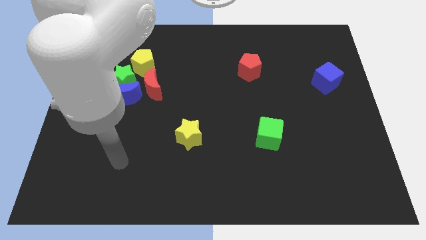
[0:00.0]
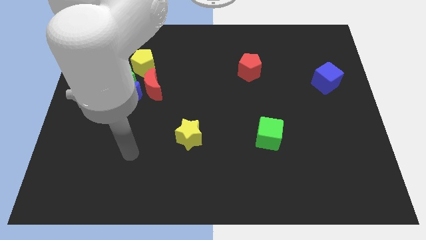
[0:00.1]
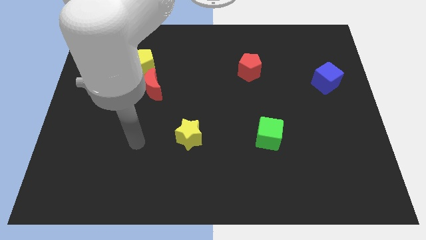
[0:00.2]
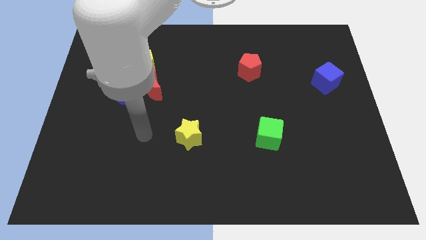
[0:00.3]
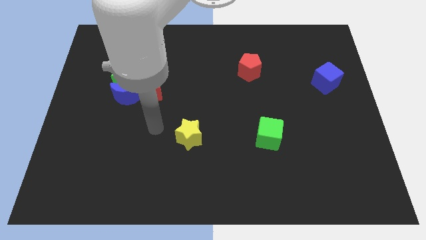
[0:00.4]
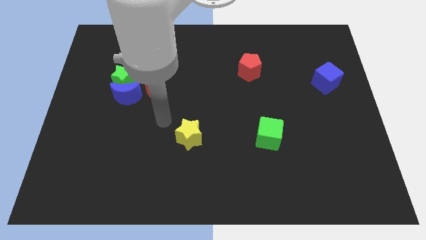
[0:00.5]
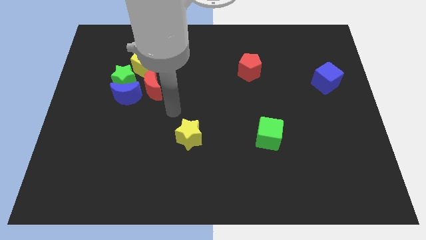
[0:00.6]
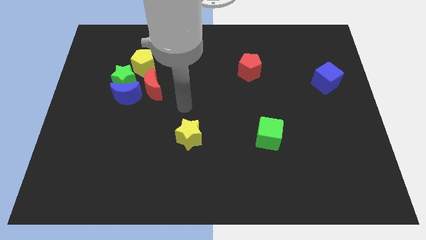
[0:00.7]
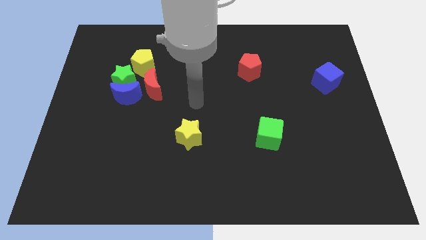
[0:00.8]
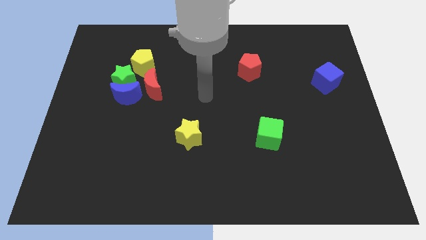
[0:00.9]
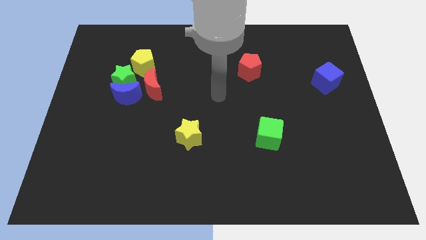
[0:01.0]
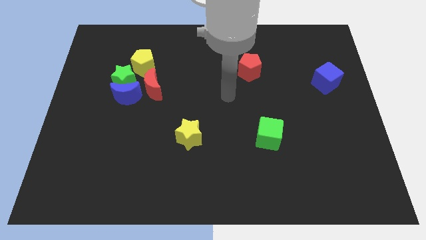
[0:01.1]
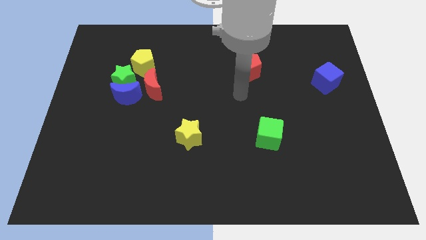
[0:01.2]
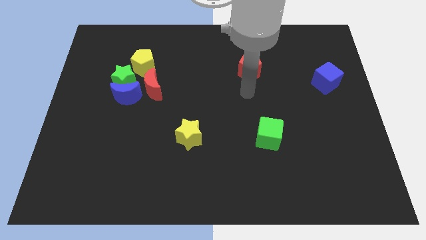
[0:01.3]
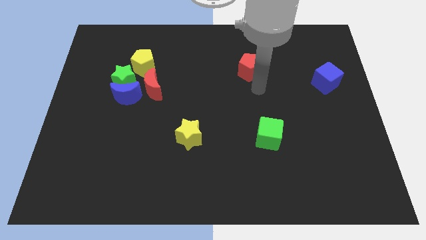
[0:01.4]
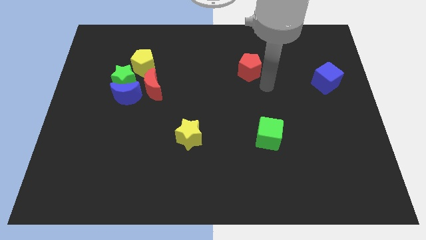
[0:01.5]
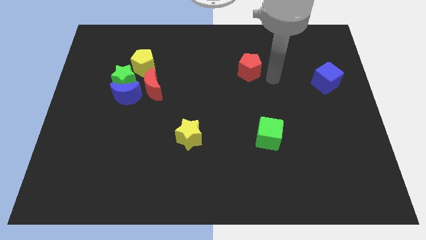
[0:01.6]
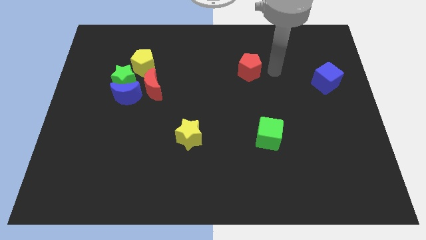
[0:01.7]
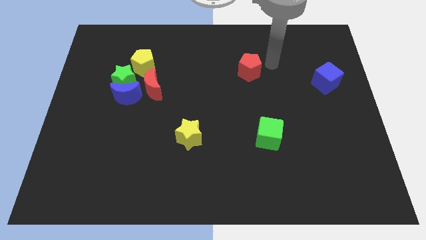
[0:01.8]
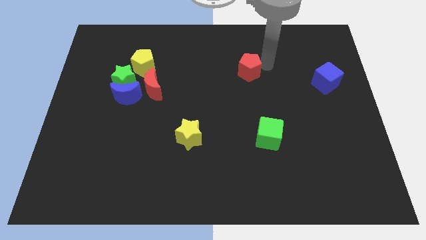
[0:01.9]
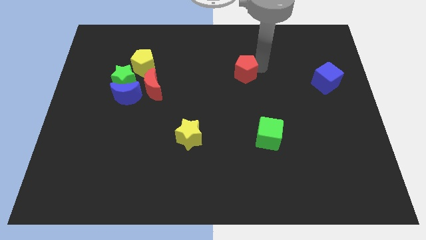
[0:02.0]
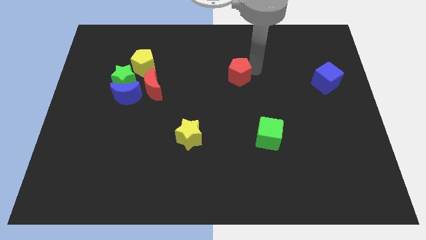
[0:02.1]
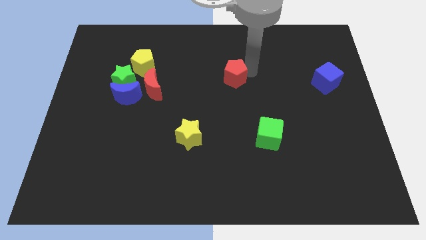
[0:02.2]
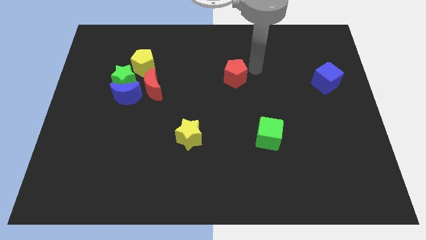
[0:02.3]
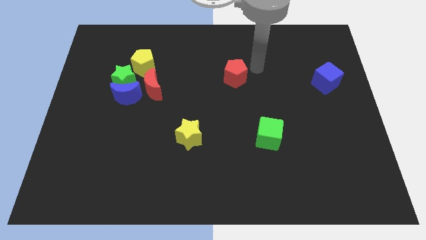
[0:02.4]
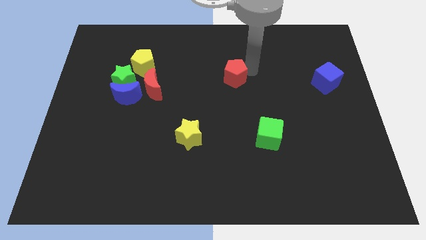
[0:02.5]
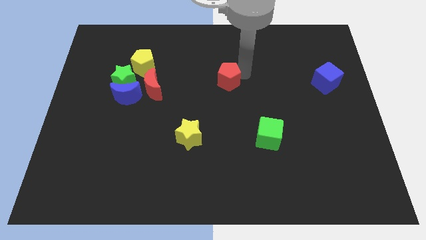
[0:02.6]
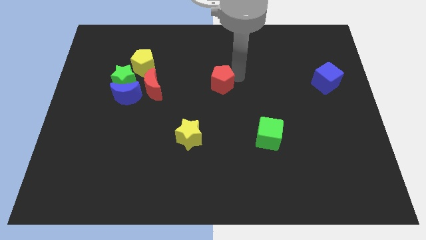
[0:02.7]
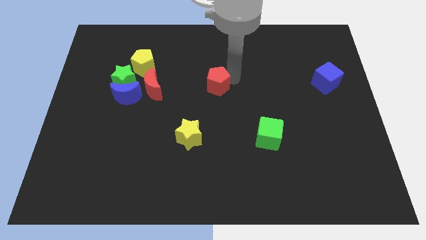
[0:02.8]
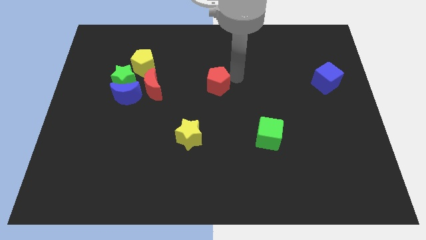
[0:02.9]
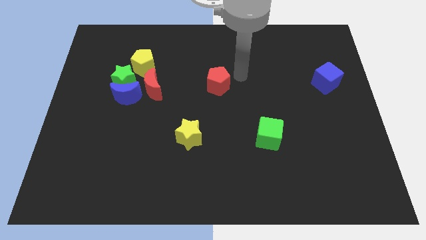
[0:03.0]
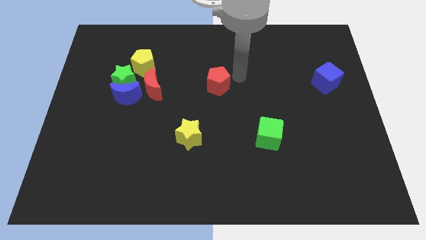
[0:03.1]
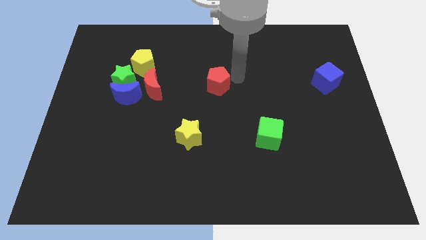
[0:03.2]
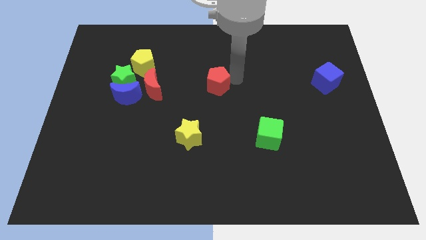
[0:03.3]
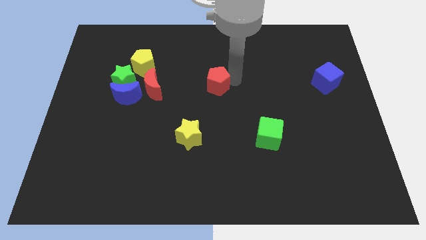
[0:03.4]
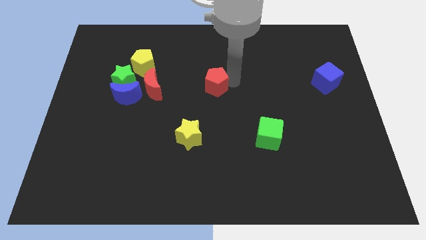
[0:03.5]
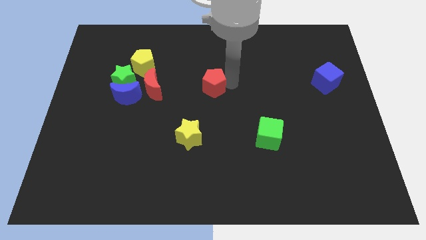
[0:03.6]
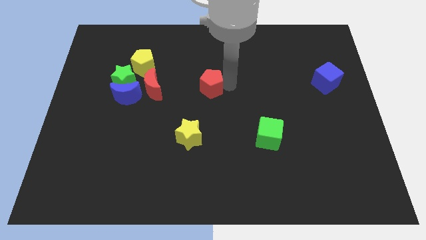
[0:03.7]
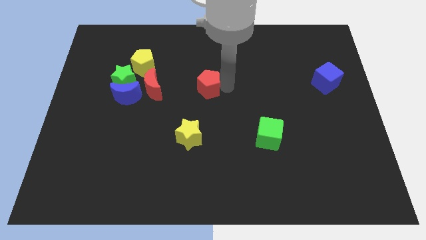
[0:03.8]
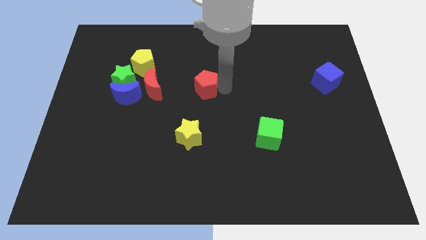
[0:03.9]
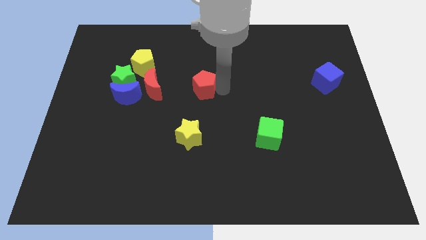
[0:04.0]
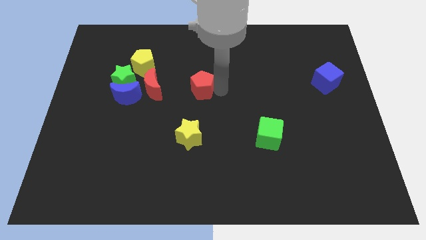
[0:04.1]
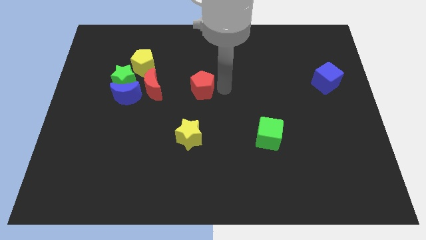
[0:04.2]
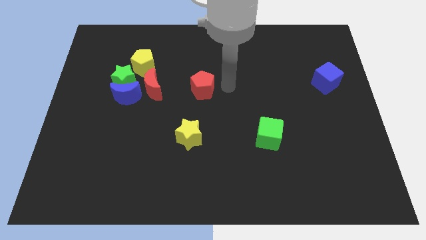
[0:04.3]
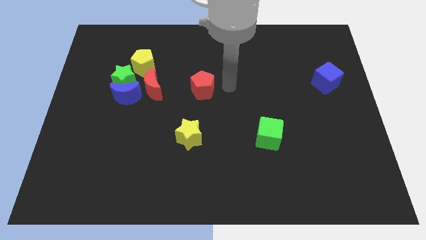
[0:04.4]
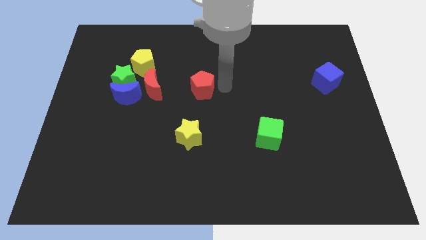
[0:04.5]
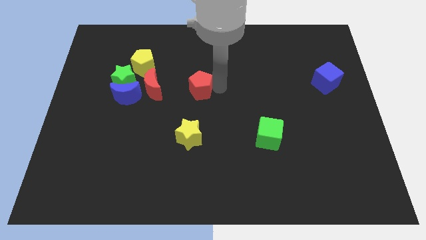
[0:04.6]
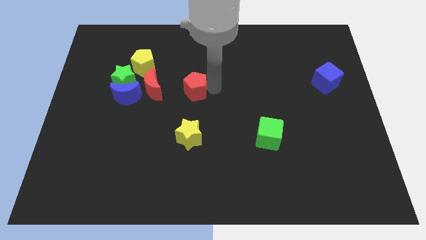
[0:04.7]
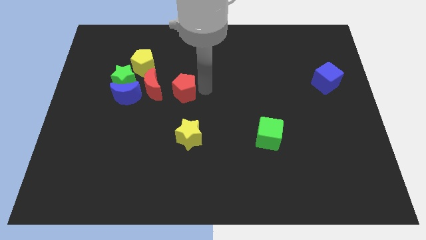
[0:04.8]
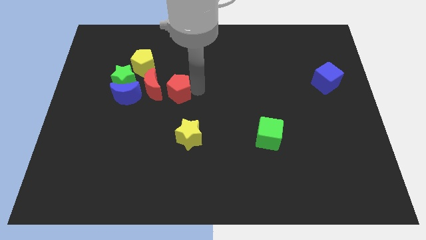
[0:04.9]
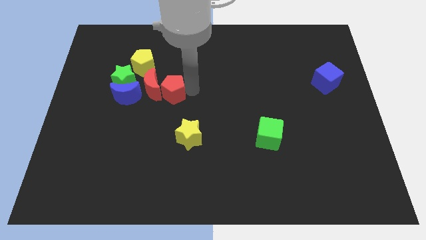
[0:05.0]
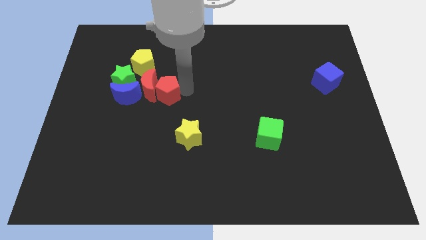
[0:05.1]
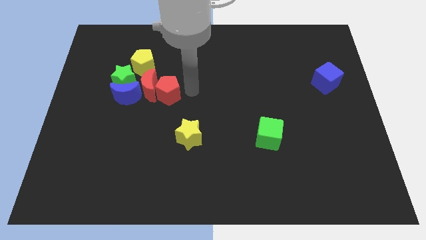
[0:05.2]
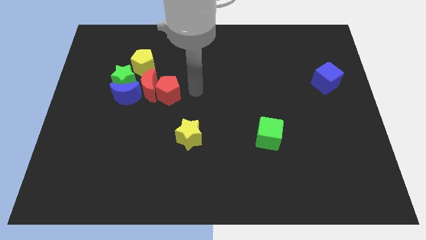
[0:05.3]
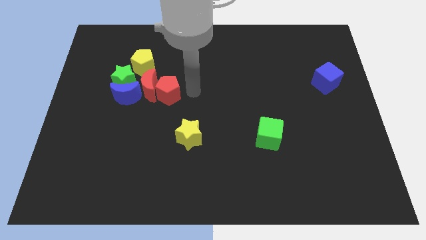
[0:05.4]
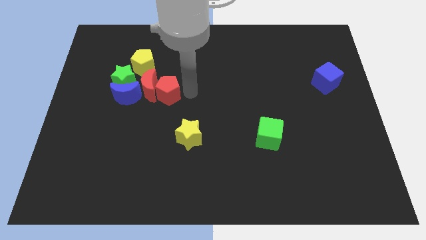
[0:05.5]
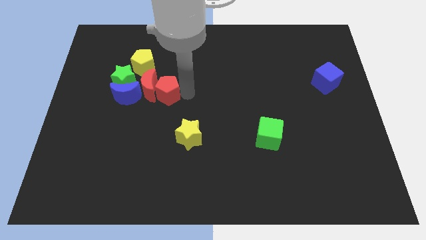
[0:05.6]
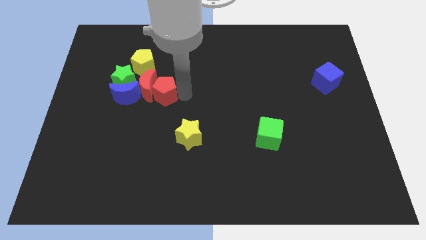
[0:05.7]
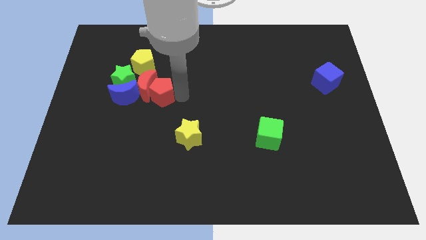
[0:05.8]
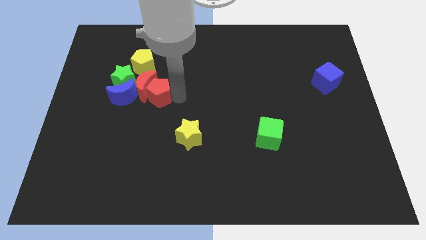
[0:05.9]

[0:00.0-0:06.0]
slide the red pentagon to the bottom side of the yellow pentagon

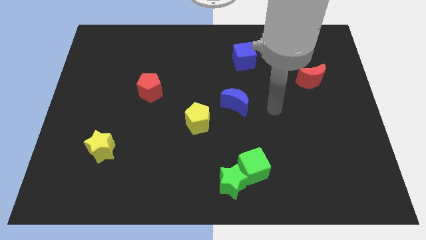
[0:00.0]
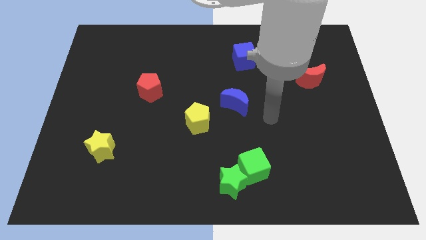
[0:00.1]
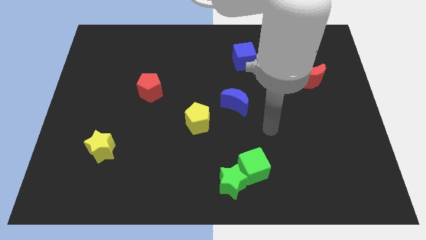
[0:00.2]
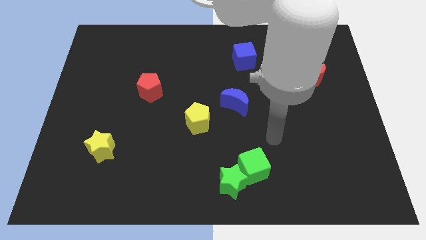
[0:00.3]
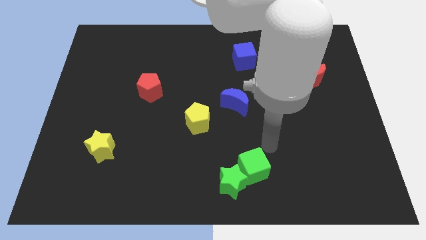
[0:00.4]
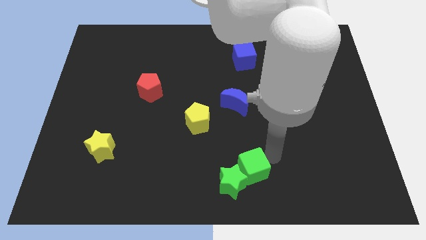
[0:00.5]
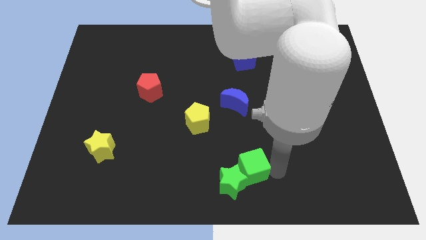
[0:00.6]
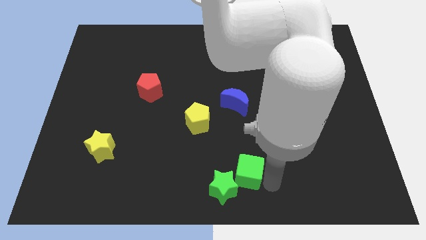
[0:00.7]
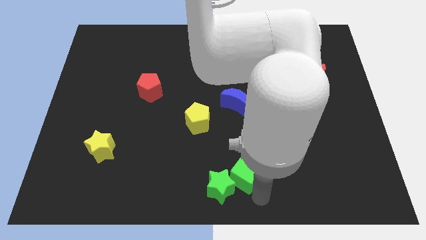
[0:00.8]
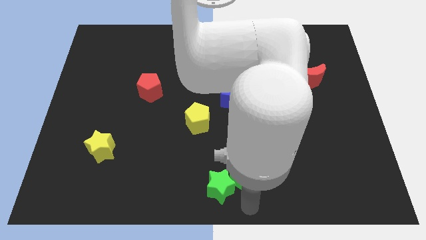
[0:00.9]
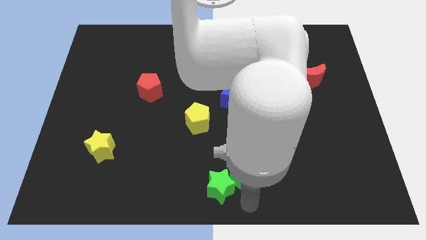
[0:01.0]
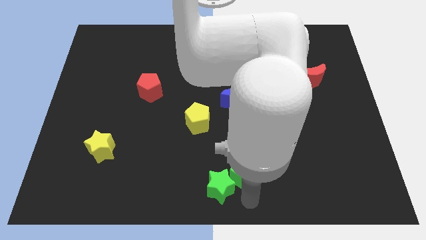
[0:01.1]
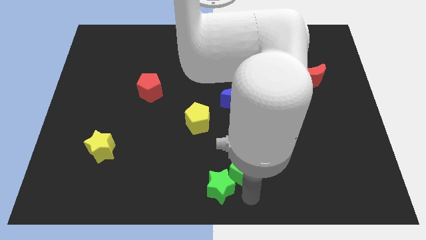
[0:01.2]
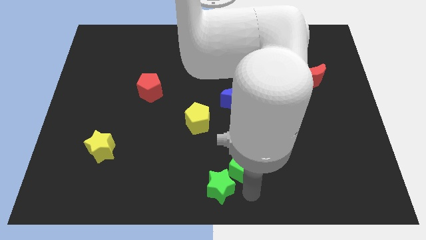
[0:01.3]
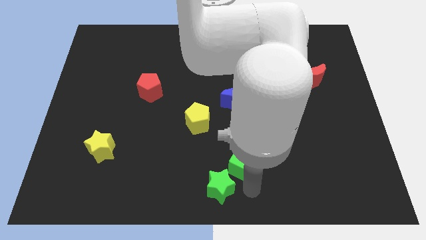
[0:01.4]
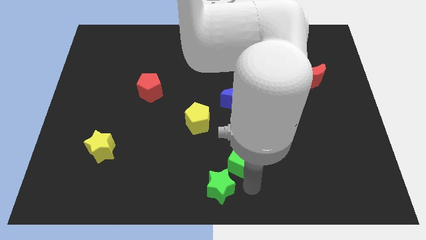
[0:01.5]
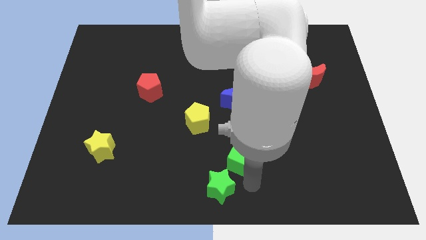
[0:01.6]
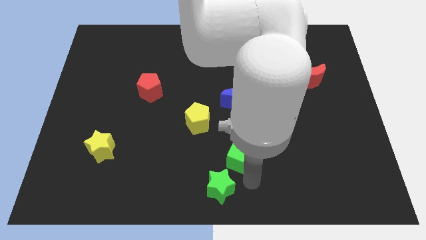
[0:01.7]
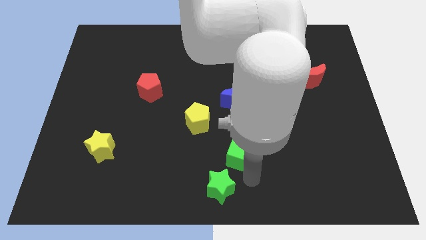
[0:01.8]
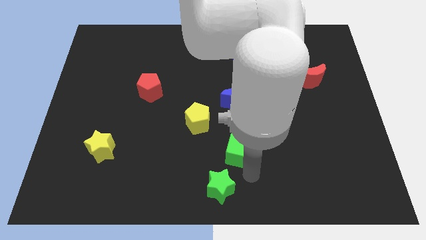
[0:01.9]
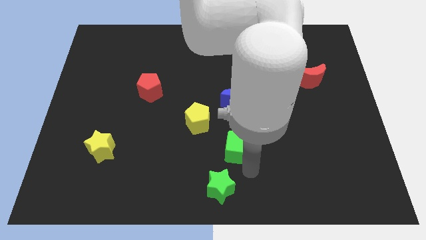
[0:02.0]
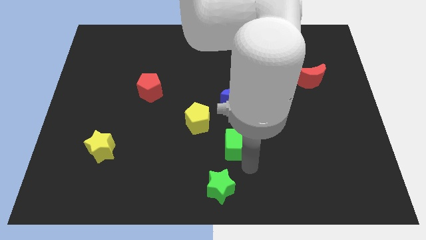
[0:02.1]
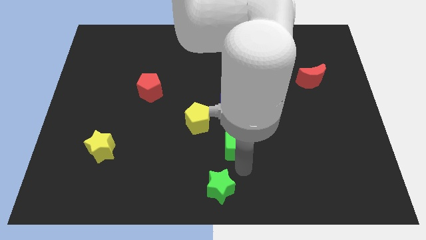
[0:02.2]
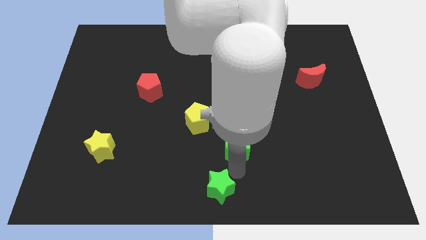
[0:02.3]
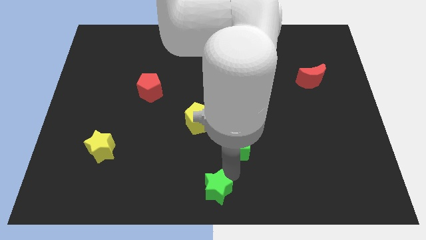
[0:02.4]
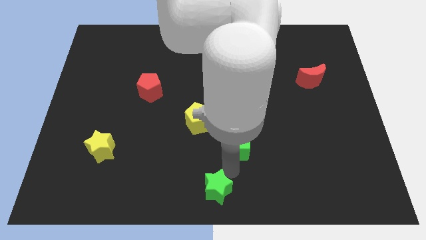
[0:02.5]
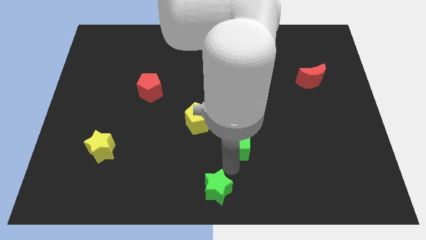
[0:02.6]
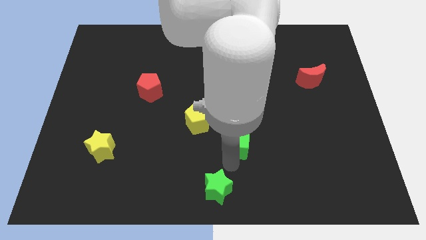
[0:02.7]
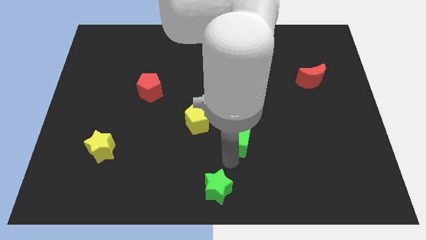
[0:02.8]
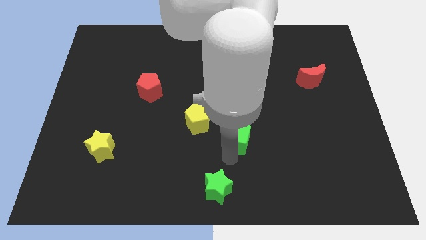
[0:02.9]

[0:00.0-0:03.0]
put the green cube just right of the yellow pentagon
